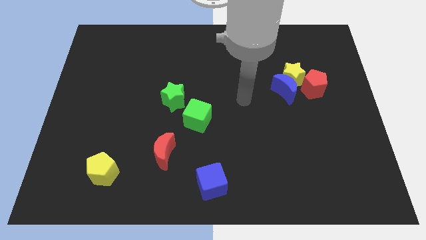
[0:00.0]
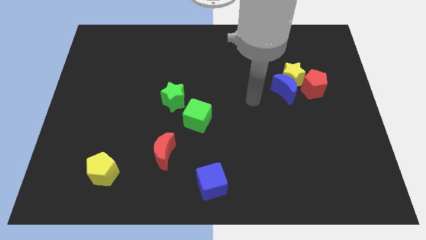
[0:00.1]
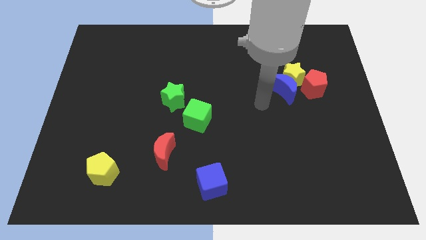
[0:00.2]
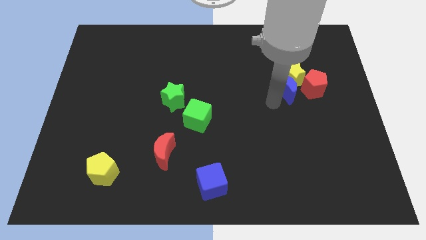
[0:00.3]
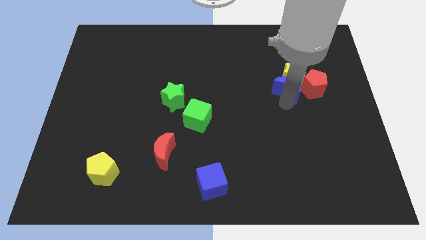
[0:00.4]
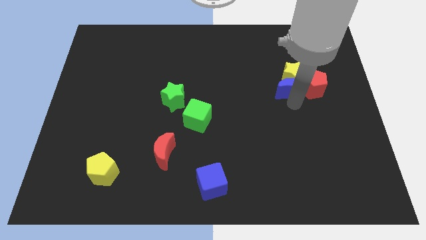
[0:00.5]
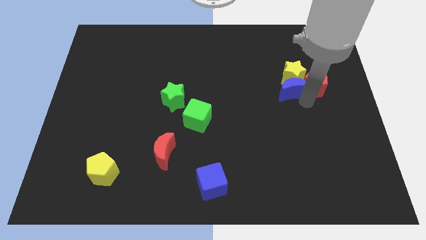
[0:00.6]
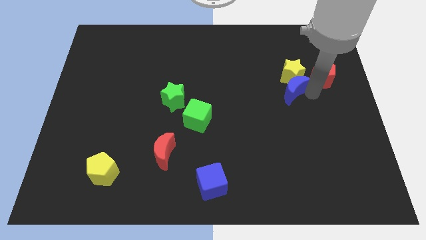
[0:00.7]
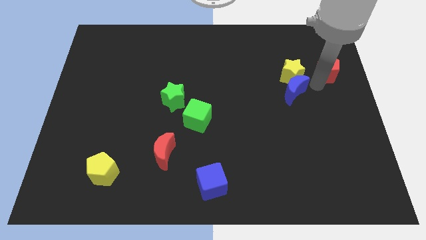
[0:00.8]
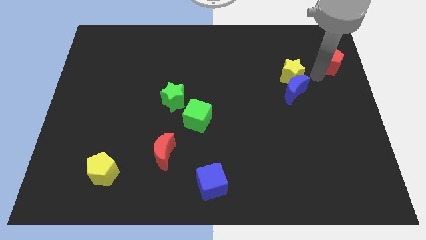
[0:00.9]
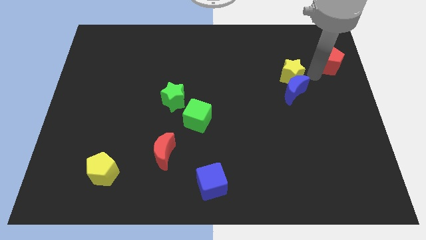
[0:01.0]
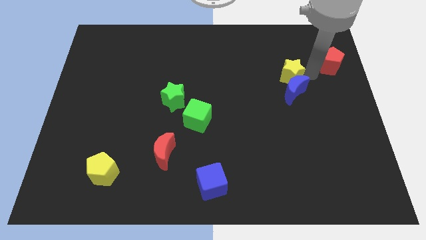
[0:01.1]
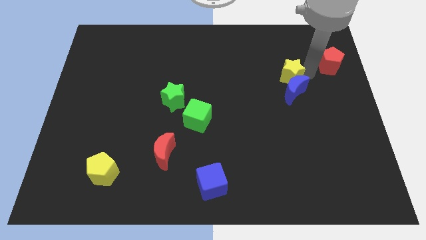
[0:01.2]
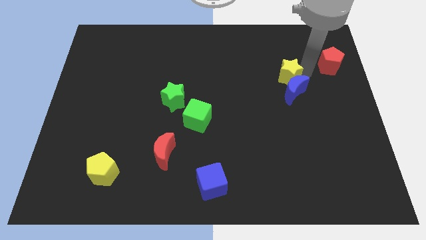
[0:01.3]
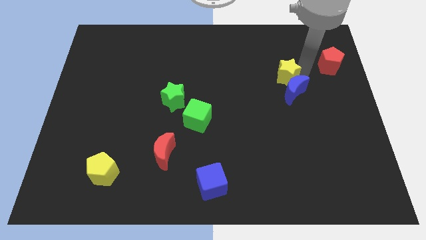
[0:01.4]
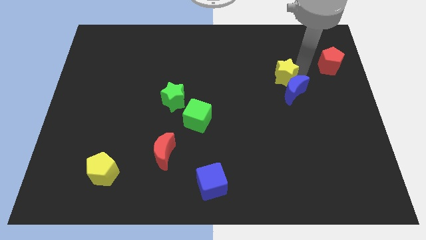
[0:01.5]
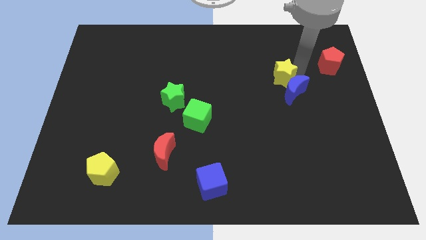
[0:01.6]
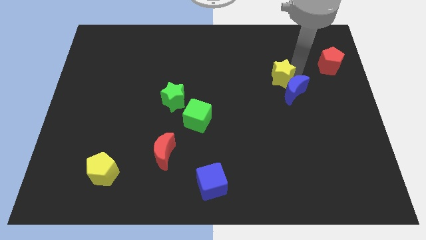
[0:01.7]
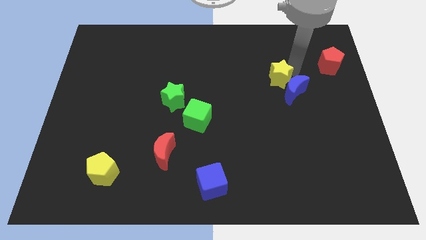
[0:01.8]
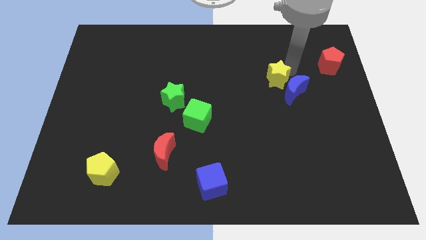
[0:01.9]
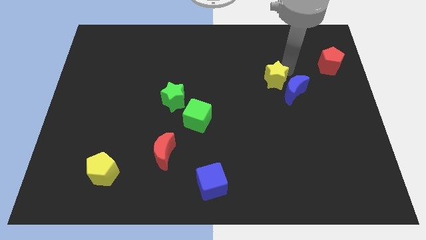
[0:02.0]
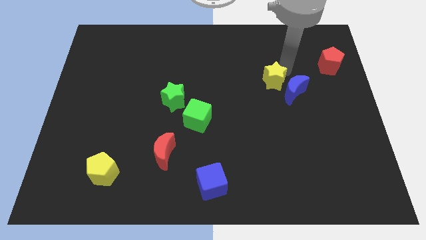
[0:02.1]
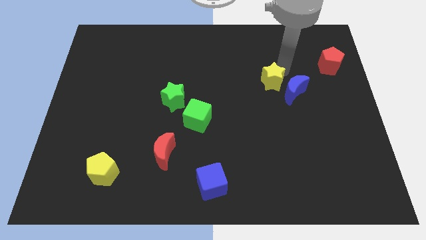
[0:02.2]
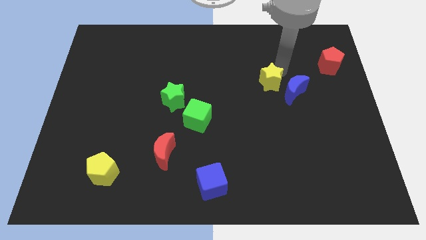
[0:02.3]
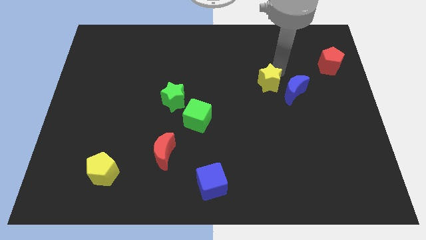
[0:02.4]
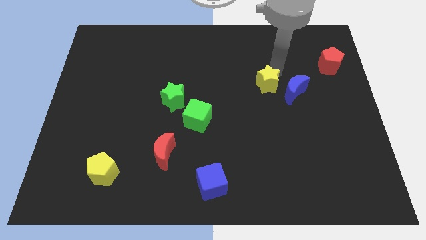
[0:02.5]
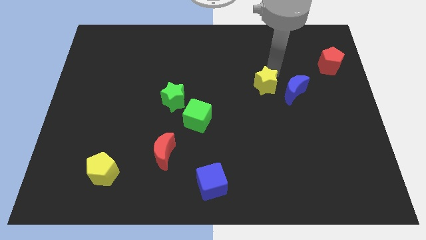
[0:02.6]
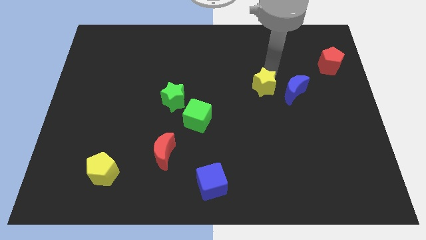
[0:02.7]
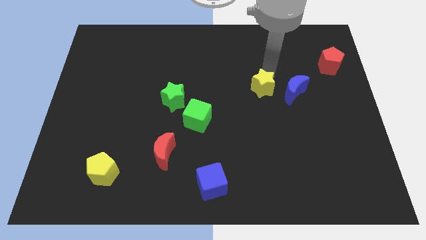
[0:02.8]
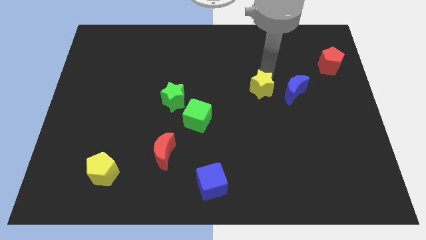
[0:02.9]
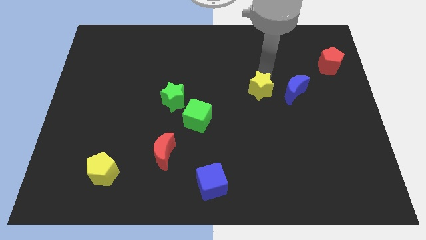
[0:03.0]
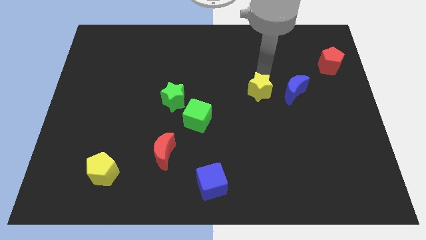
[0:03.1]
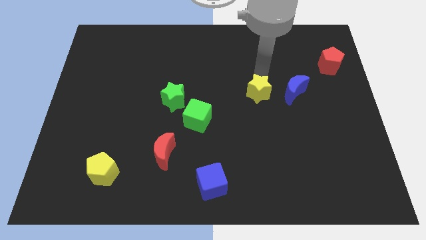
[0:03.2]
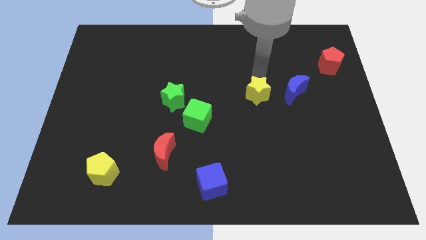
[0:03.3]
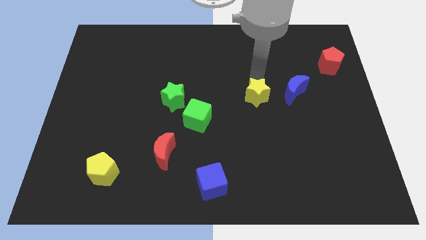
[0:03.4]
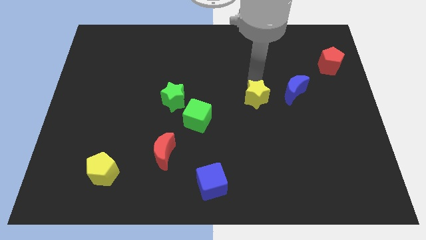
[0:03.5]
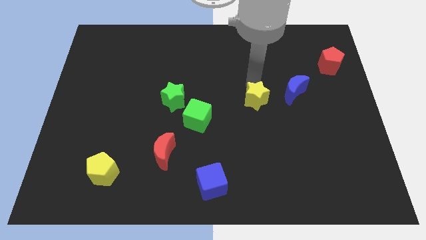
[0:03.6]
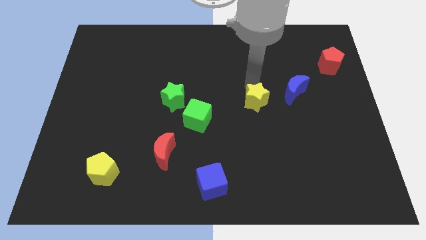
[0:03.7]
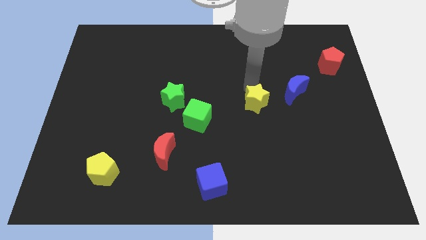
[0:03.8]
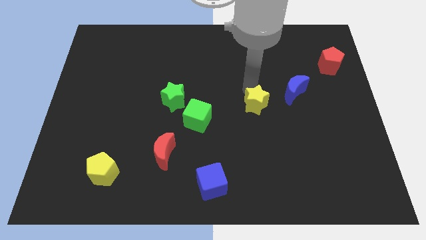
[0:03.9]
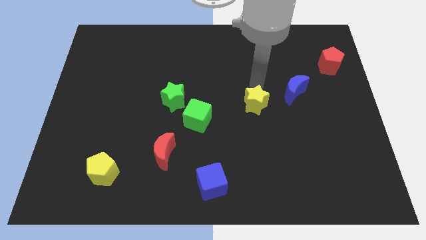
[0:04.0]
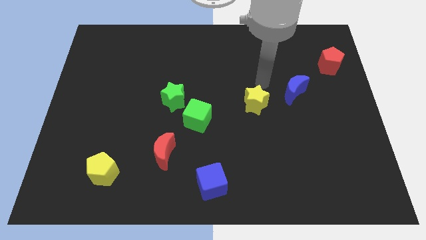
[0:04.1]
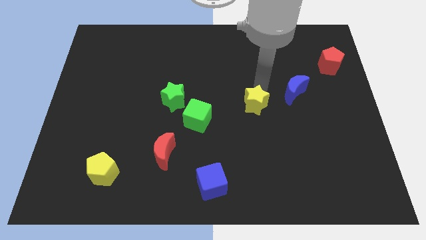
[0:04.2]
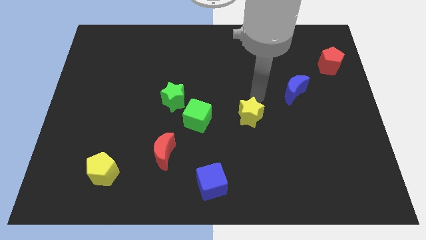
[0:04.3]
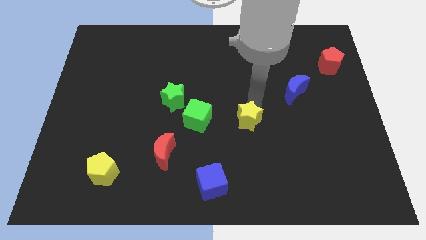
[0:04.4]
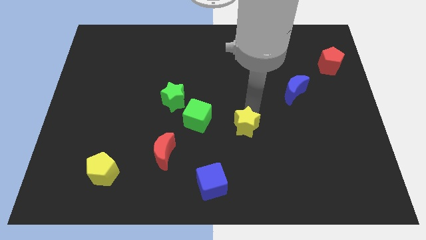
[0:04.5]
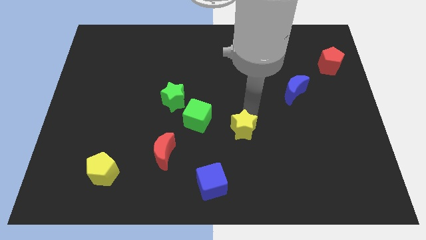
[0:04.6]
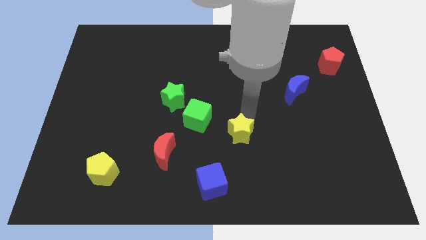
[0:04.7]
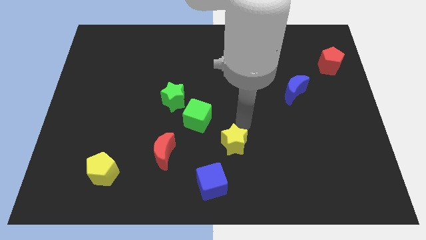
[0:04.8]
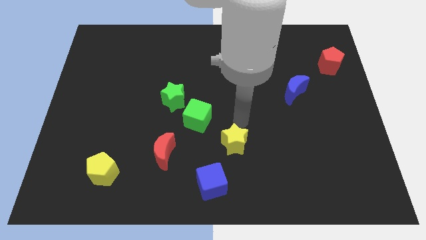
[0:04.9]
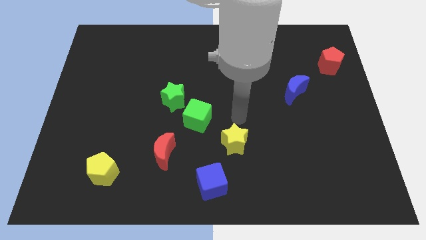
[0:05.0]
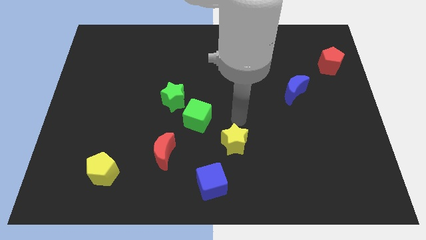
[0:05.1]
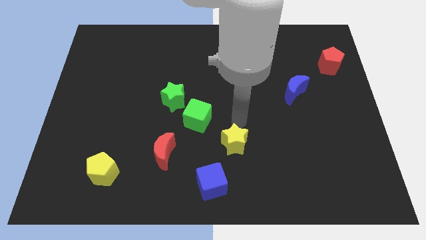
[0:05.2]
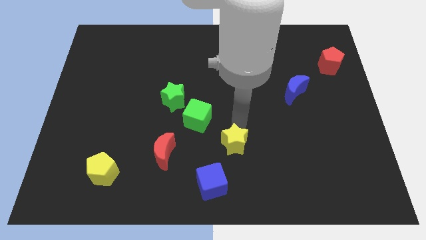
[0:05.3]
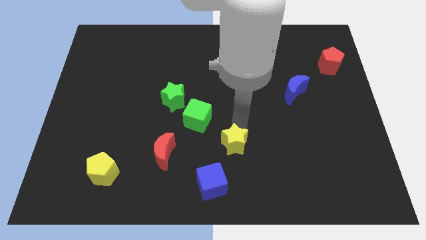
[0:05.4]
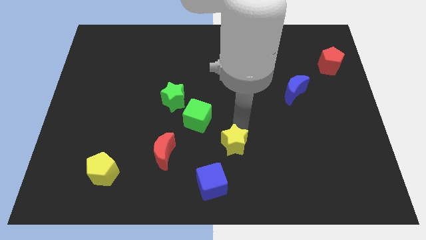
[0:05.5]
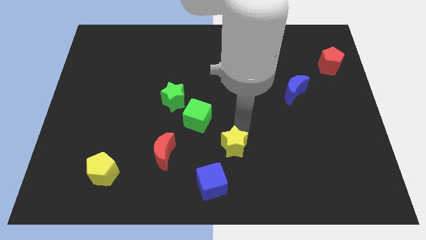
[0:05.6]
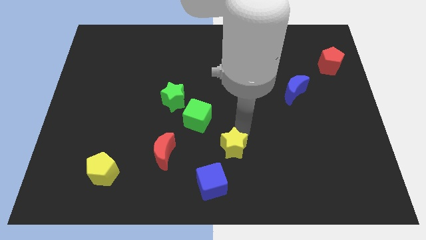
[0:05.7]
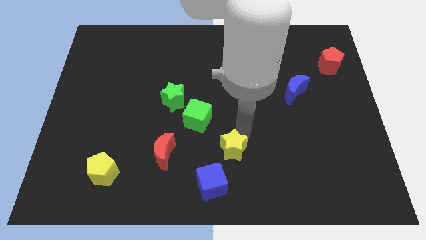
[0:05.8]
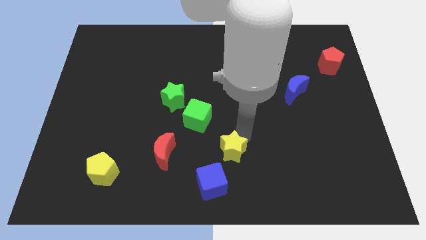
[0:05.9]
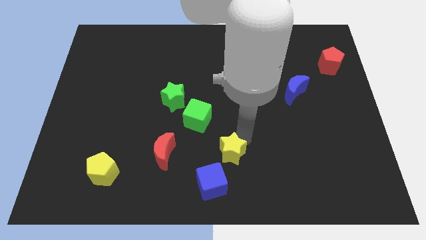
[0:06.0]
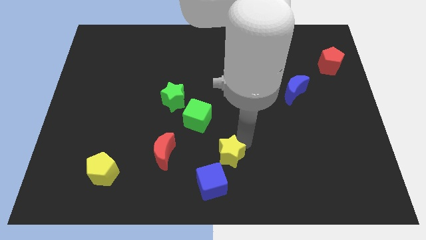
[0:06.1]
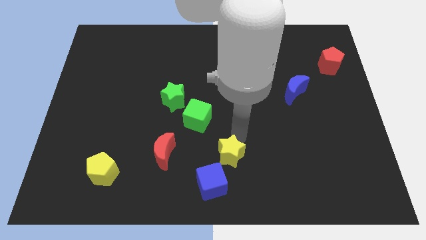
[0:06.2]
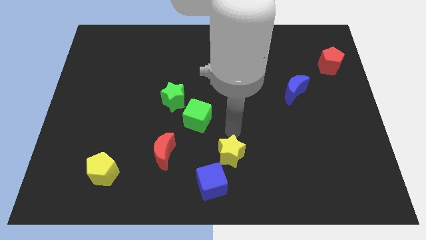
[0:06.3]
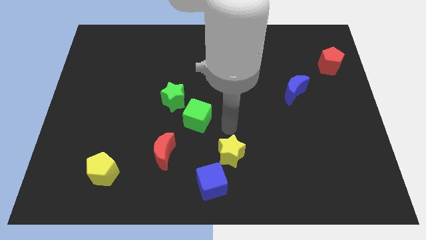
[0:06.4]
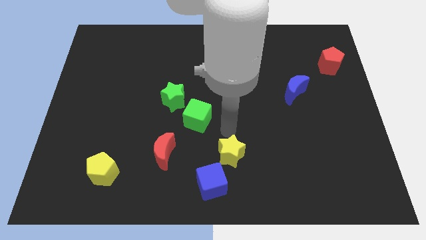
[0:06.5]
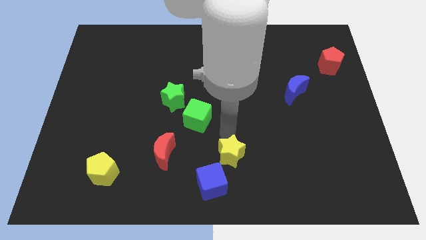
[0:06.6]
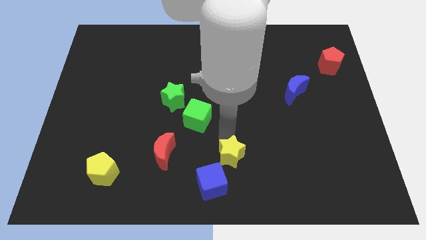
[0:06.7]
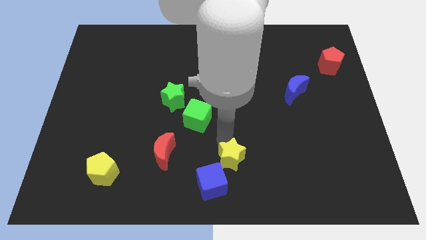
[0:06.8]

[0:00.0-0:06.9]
put the yellow star to the bottom side
